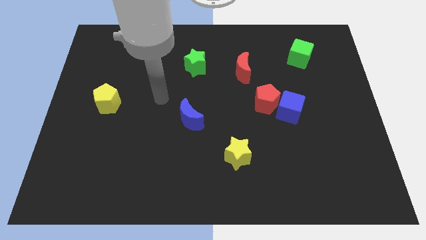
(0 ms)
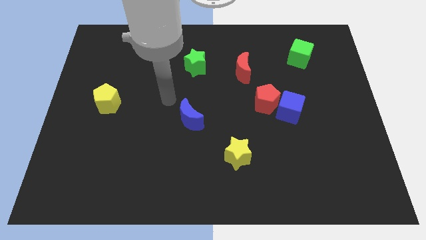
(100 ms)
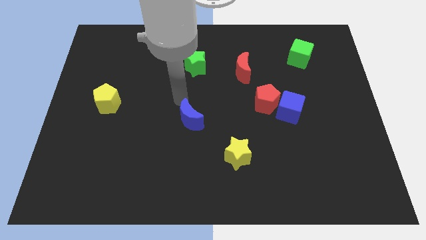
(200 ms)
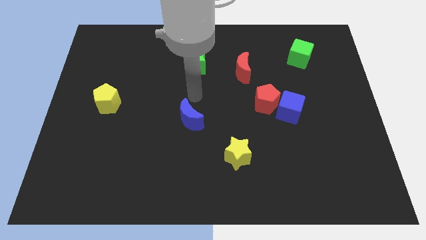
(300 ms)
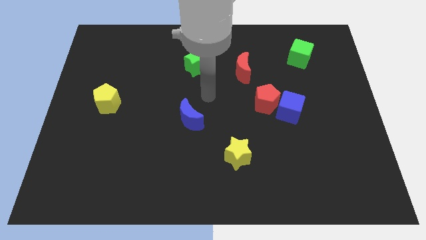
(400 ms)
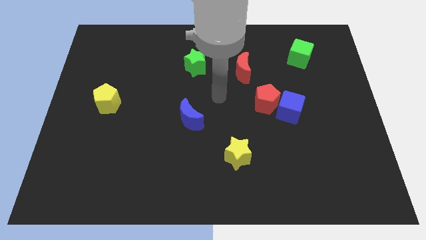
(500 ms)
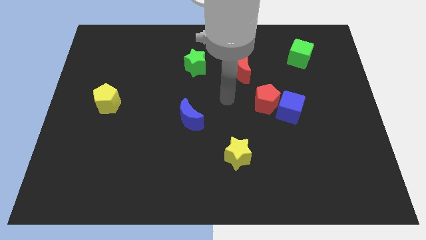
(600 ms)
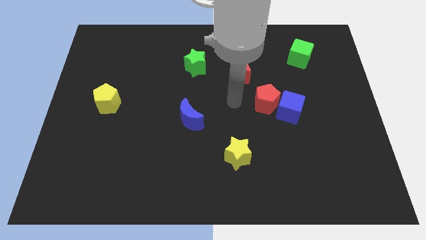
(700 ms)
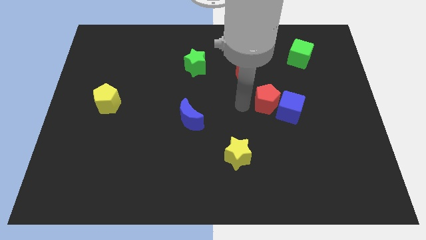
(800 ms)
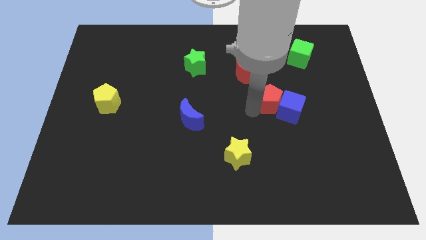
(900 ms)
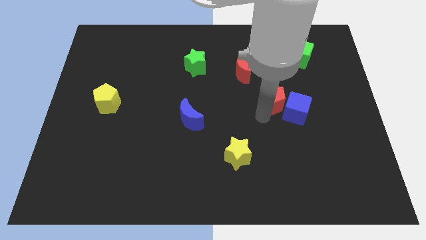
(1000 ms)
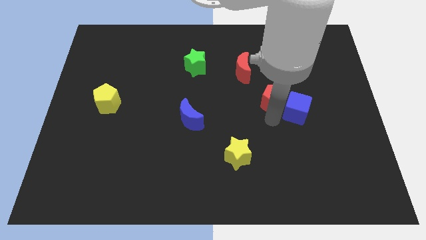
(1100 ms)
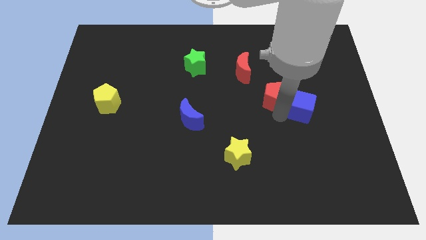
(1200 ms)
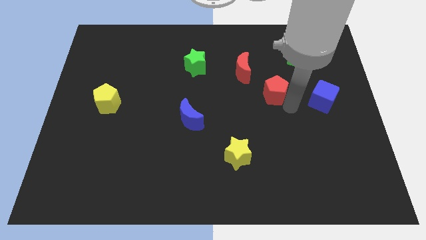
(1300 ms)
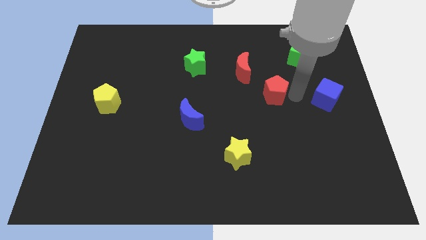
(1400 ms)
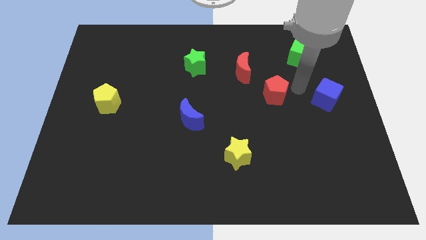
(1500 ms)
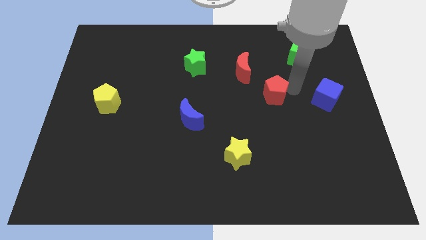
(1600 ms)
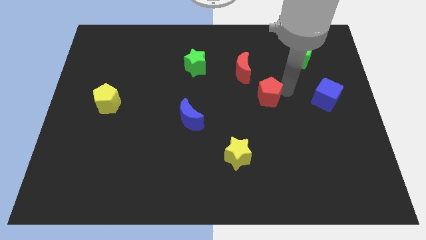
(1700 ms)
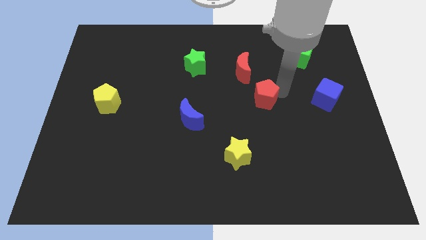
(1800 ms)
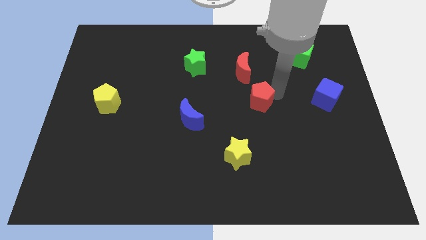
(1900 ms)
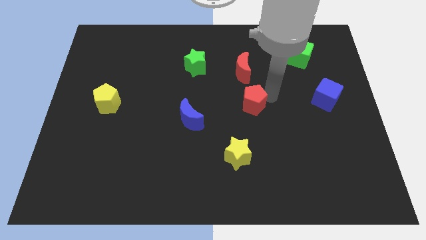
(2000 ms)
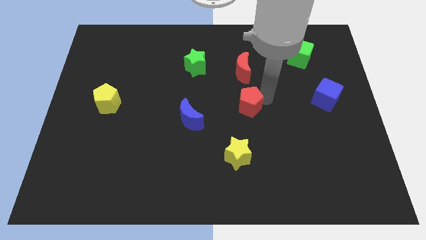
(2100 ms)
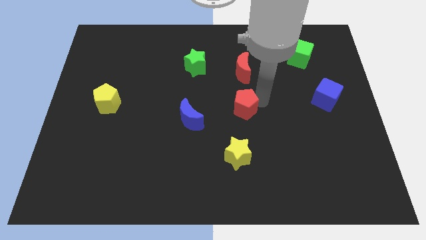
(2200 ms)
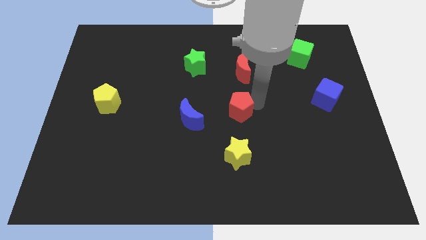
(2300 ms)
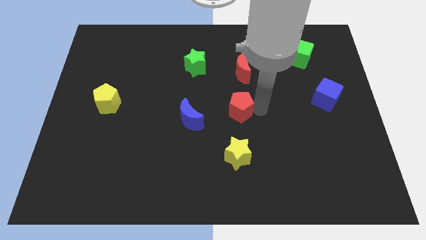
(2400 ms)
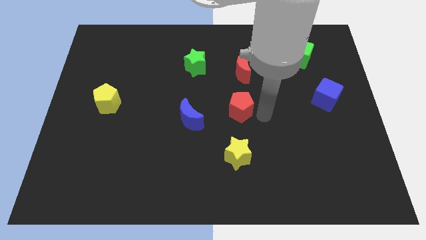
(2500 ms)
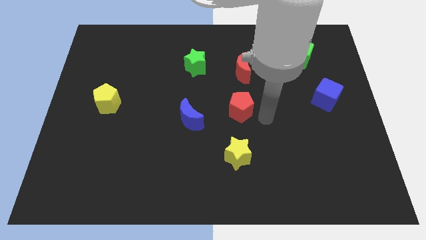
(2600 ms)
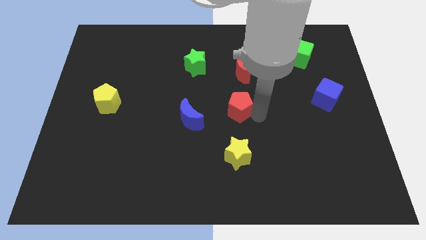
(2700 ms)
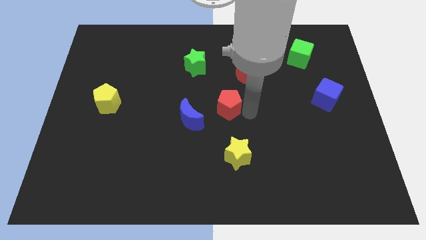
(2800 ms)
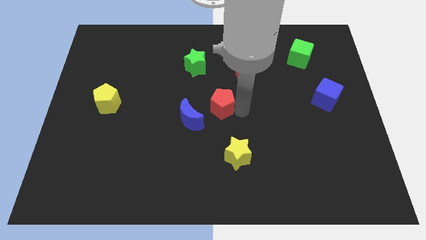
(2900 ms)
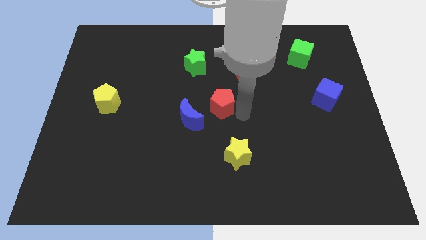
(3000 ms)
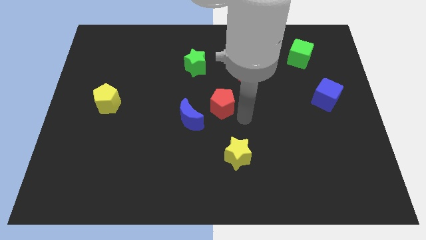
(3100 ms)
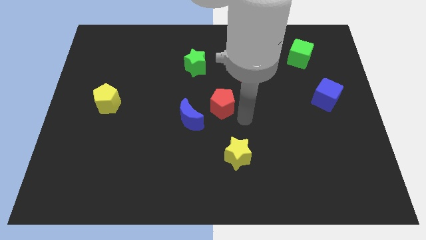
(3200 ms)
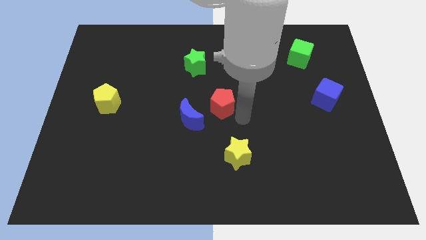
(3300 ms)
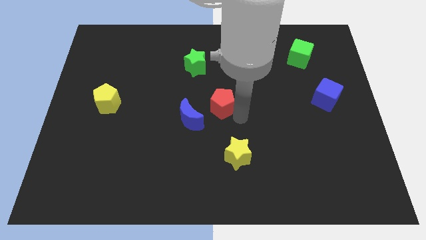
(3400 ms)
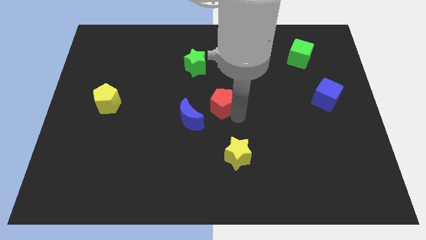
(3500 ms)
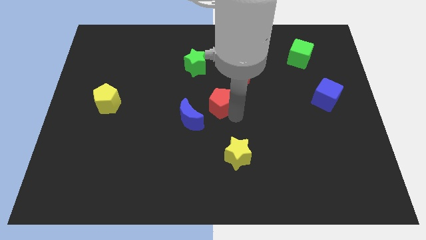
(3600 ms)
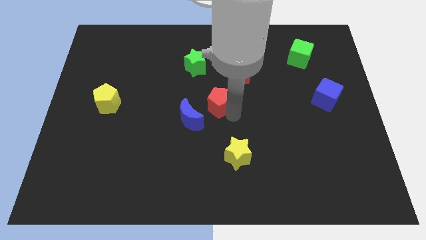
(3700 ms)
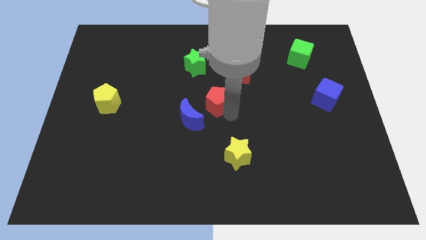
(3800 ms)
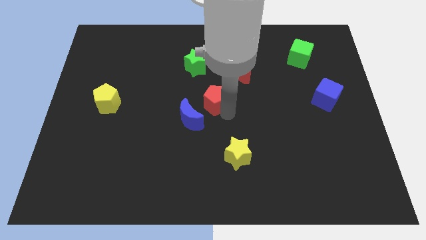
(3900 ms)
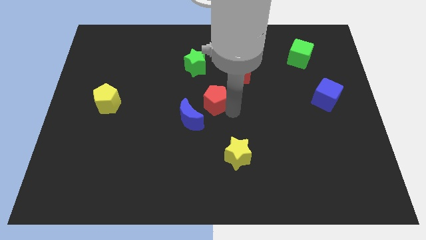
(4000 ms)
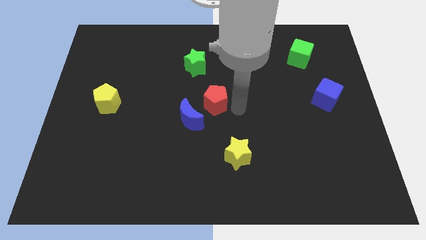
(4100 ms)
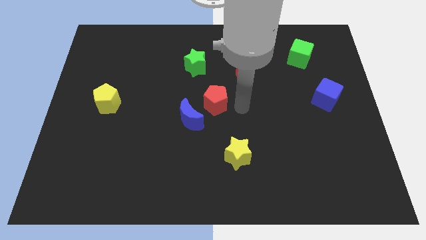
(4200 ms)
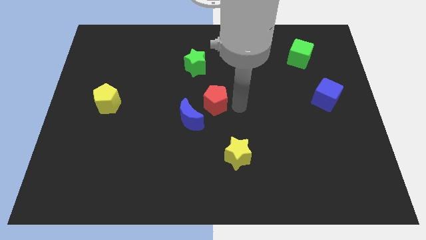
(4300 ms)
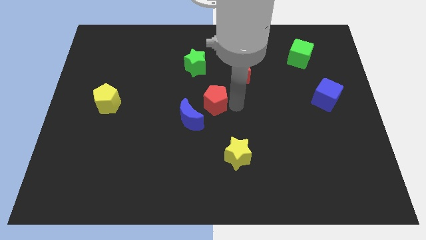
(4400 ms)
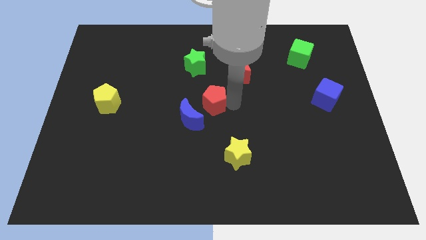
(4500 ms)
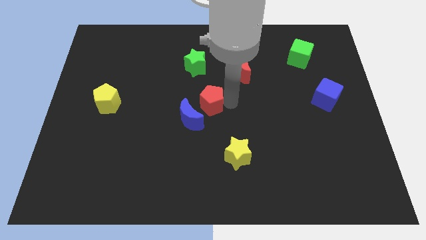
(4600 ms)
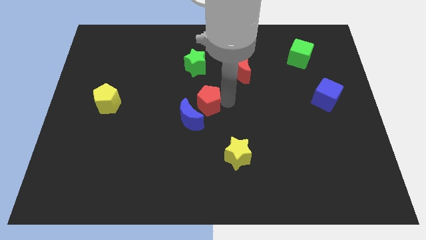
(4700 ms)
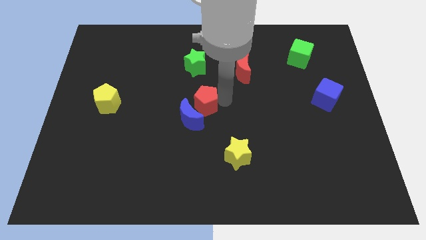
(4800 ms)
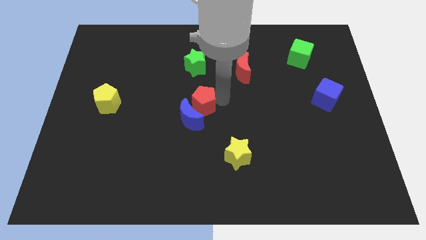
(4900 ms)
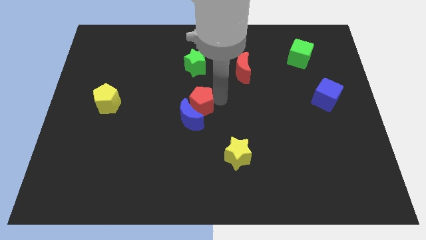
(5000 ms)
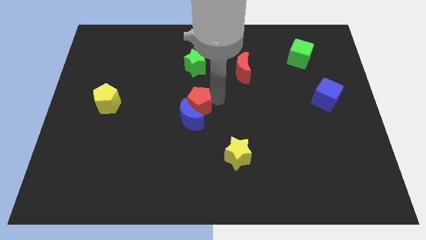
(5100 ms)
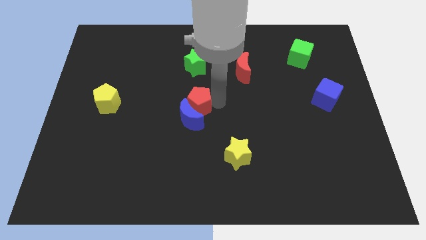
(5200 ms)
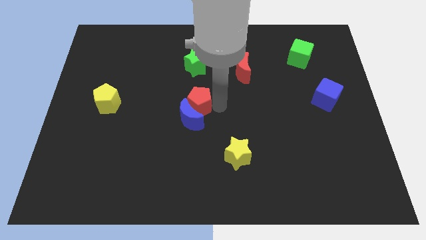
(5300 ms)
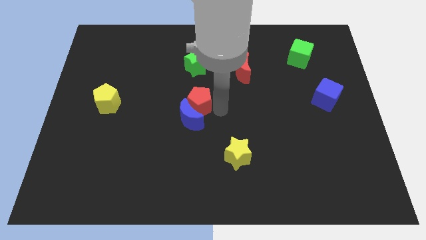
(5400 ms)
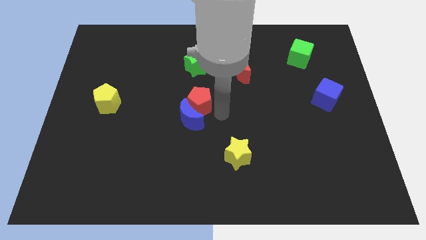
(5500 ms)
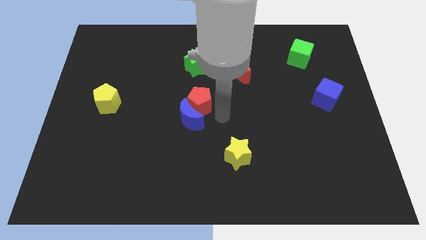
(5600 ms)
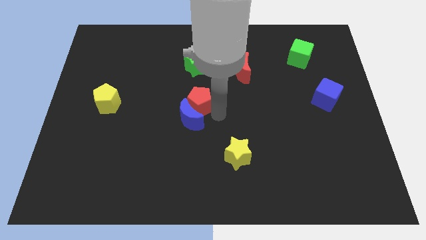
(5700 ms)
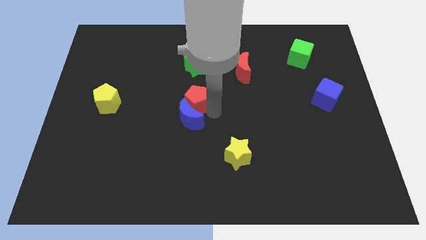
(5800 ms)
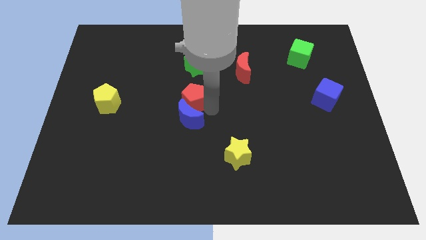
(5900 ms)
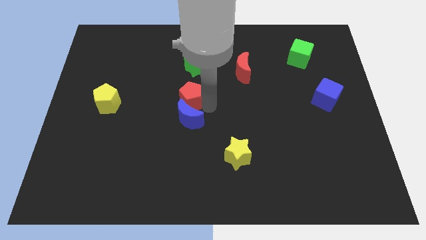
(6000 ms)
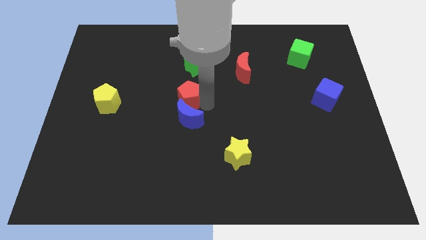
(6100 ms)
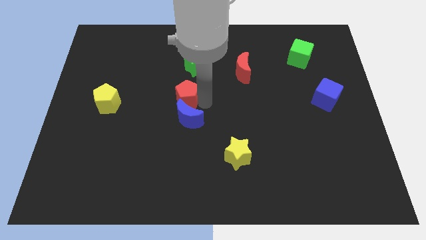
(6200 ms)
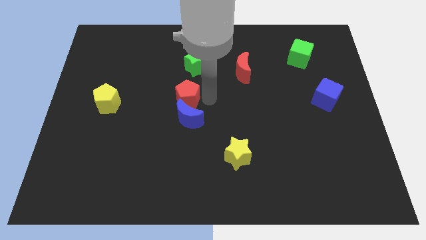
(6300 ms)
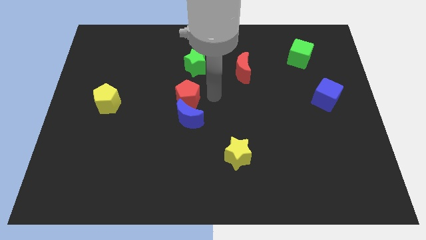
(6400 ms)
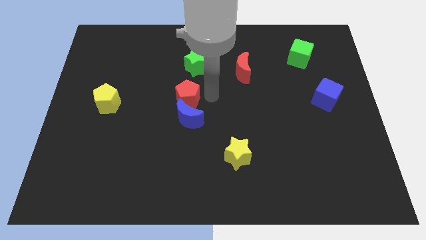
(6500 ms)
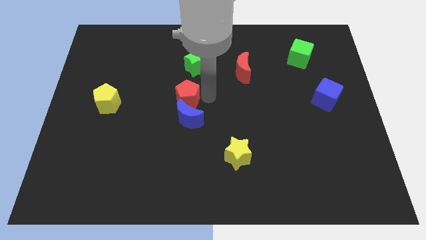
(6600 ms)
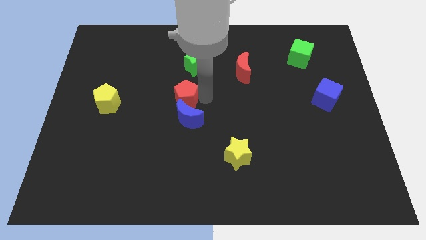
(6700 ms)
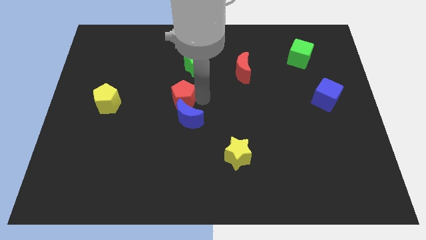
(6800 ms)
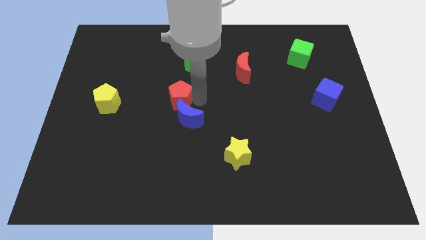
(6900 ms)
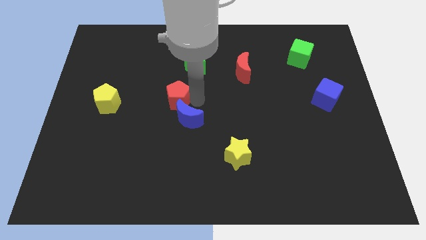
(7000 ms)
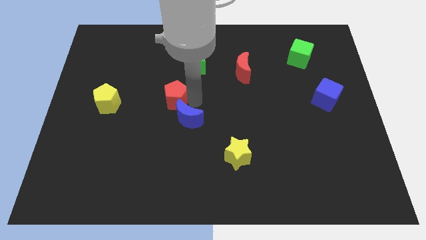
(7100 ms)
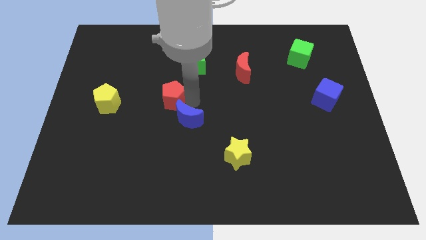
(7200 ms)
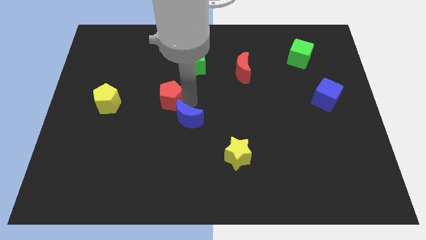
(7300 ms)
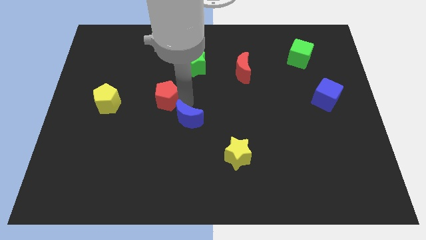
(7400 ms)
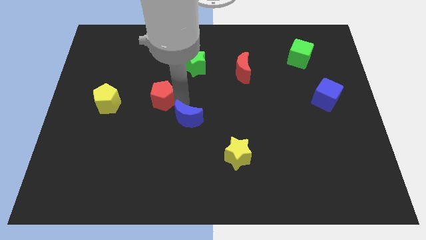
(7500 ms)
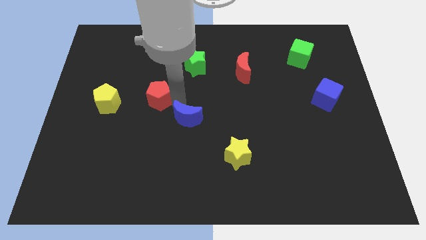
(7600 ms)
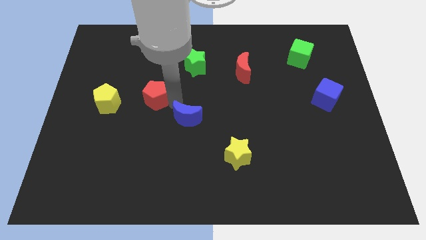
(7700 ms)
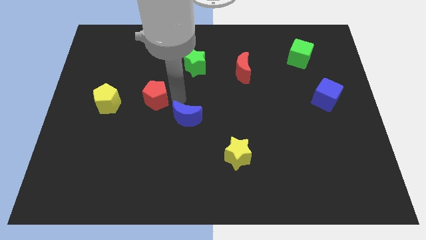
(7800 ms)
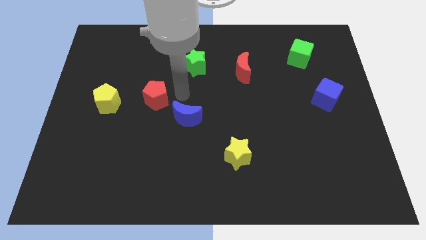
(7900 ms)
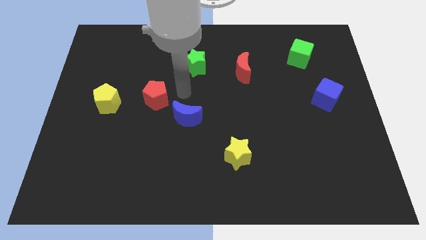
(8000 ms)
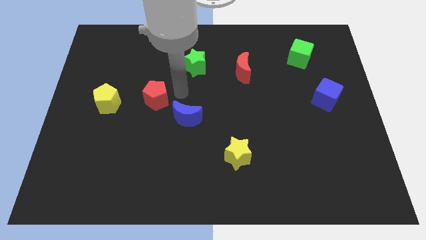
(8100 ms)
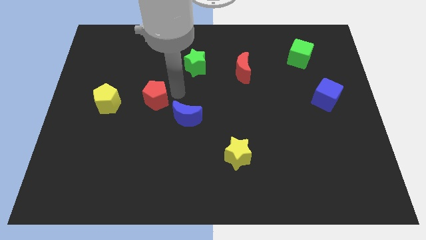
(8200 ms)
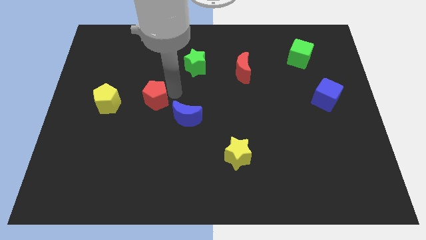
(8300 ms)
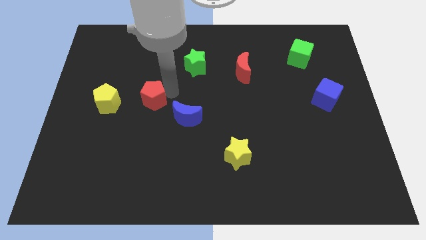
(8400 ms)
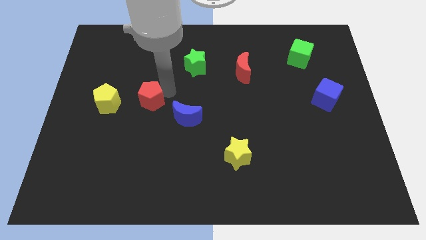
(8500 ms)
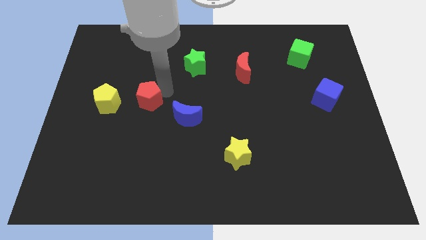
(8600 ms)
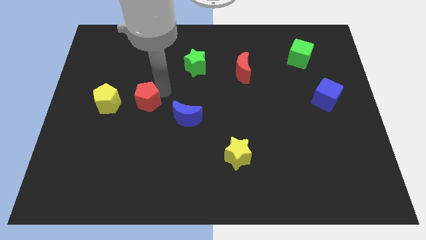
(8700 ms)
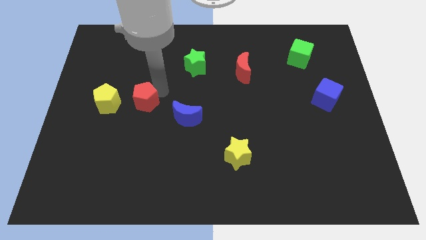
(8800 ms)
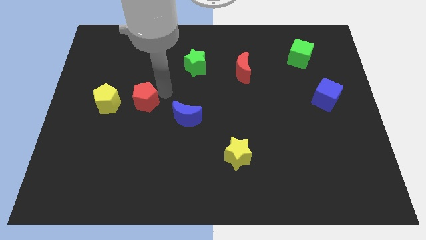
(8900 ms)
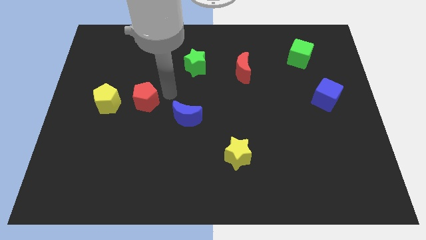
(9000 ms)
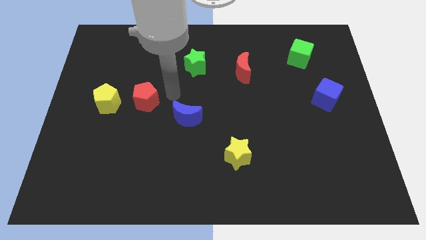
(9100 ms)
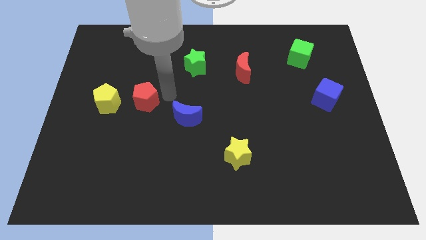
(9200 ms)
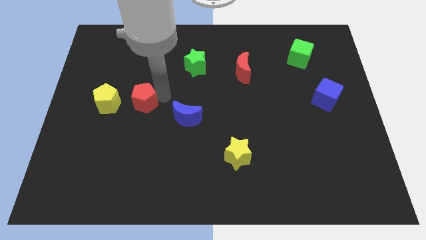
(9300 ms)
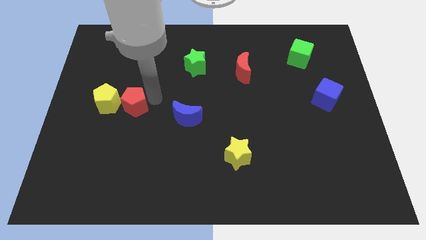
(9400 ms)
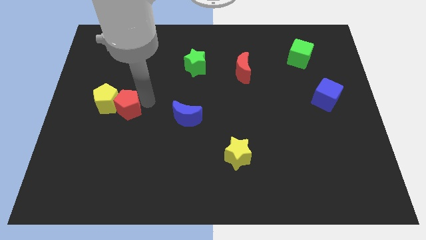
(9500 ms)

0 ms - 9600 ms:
put the red pentagon close to the yellow pentagon
